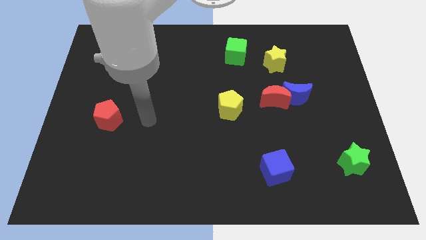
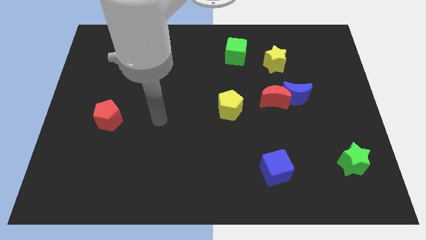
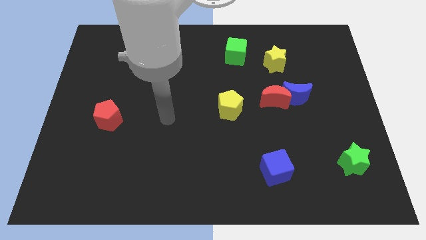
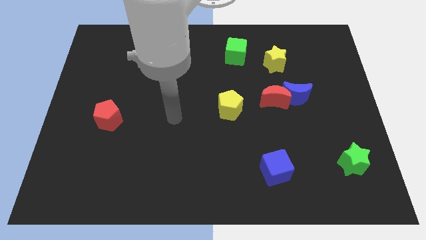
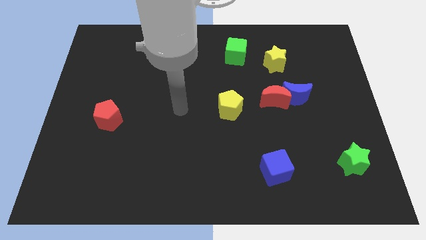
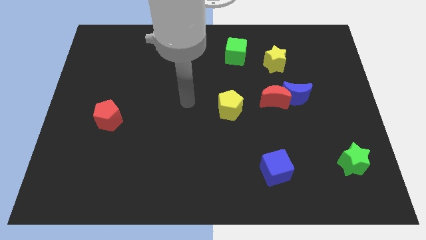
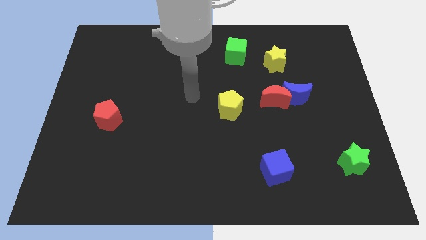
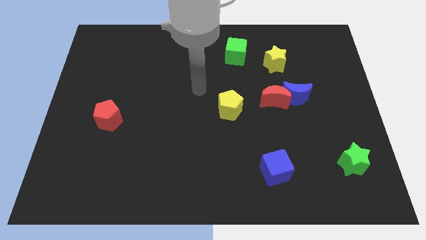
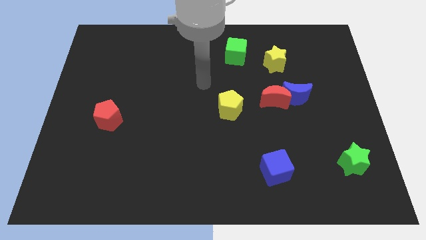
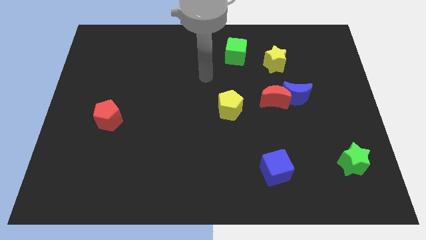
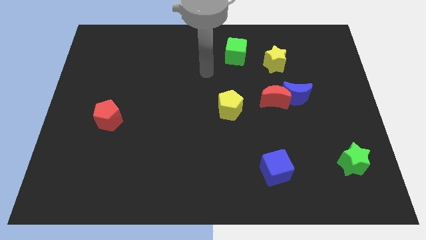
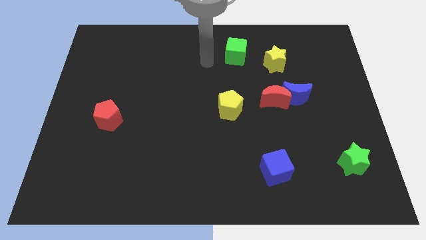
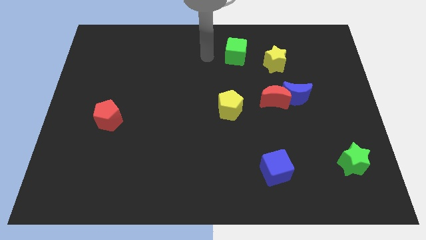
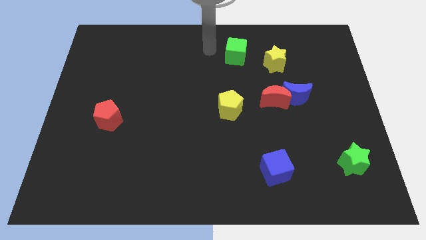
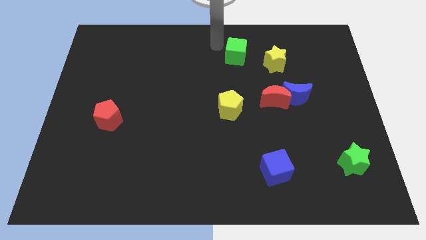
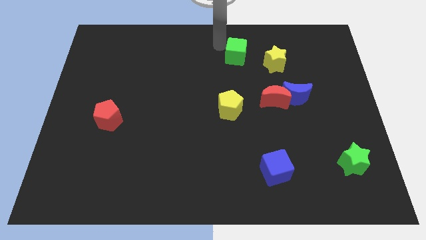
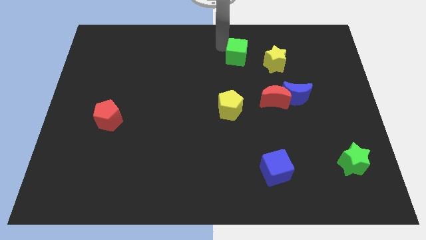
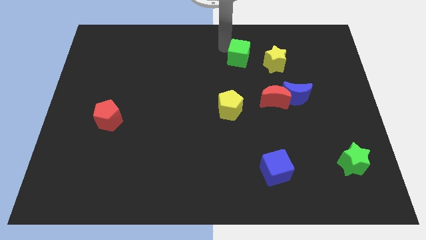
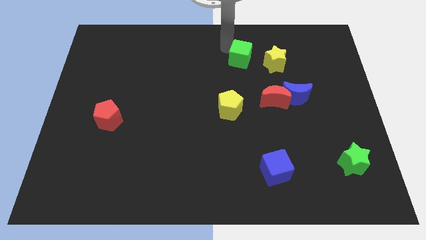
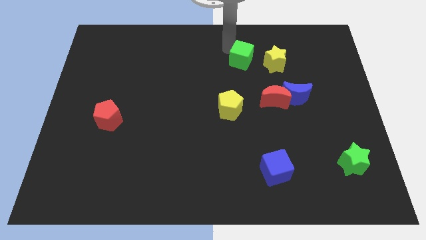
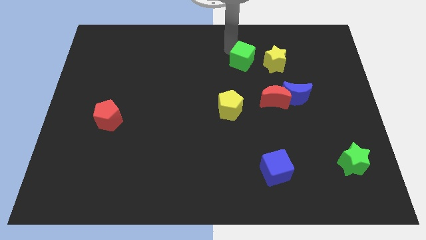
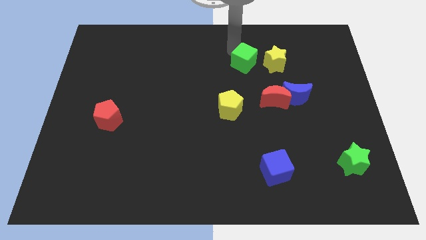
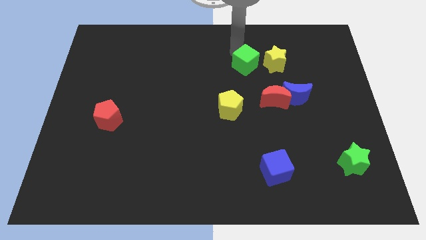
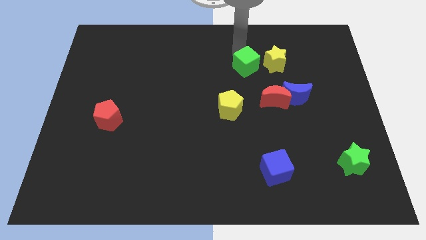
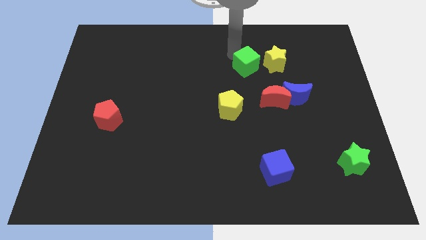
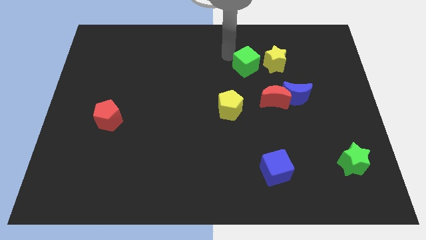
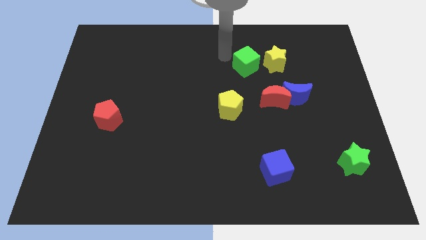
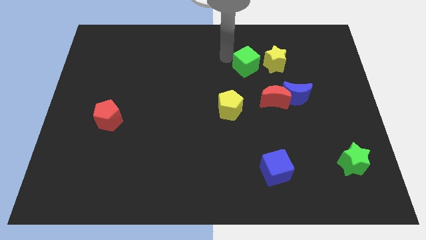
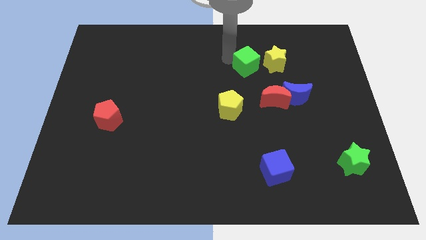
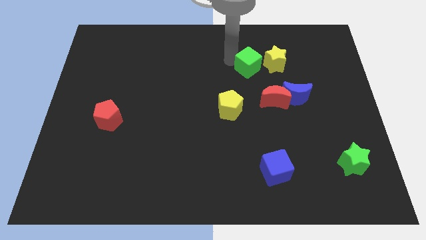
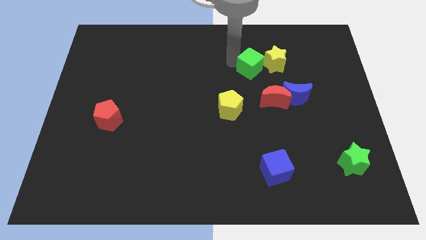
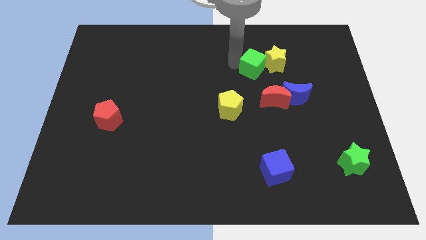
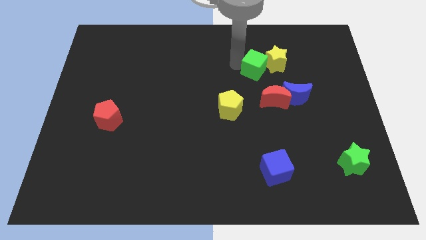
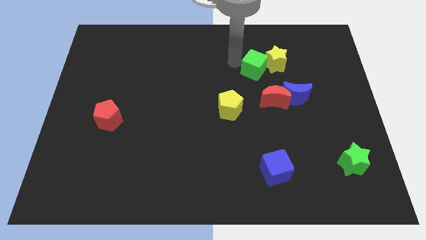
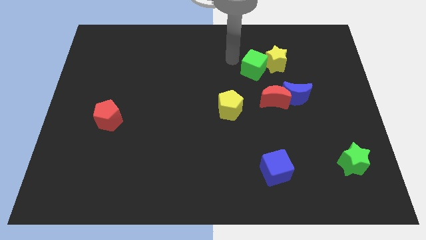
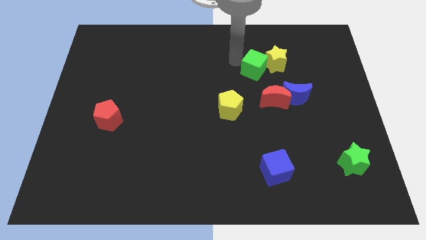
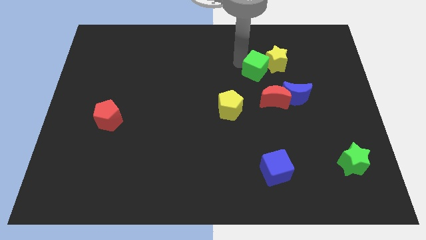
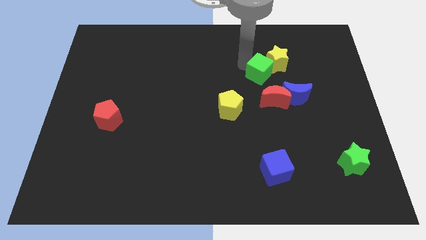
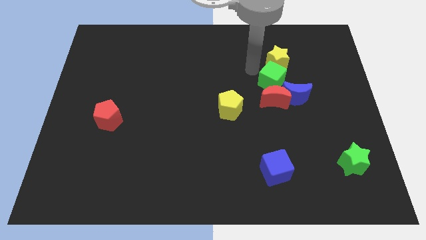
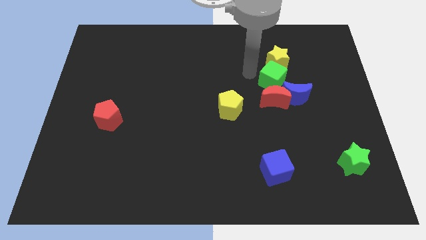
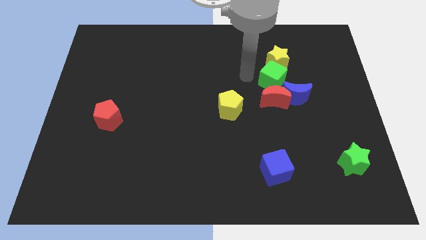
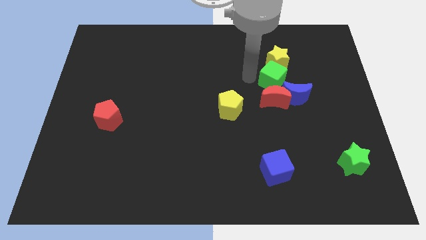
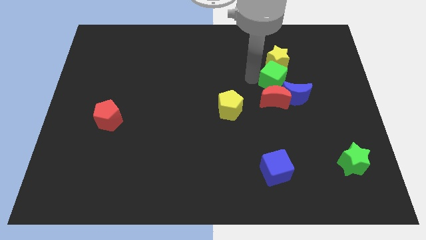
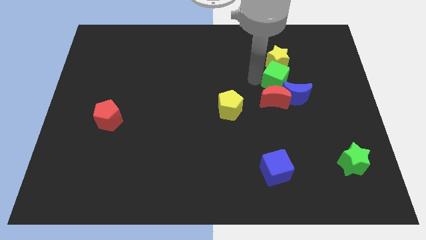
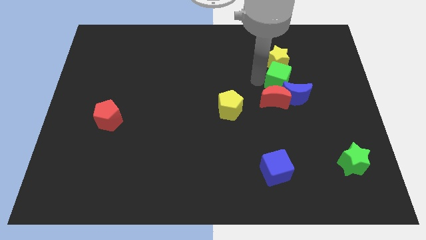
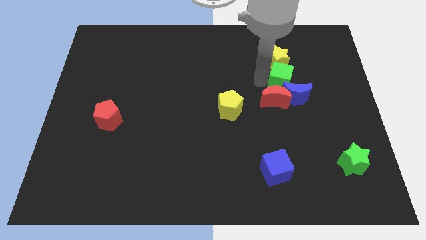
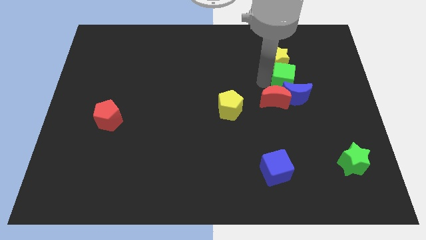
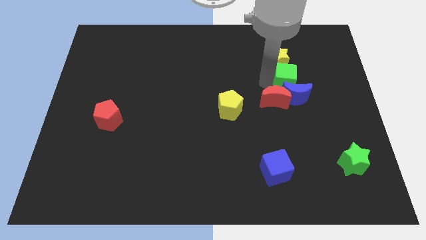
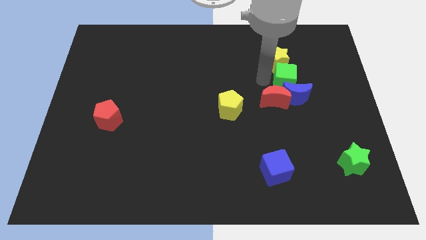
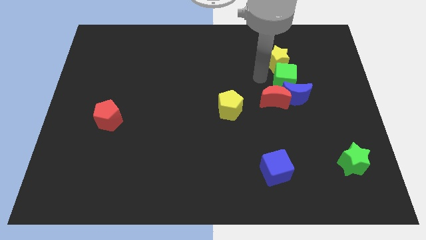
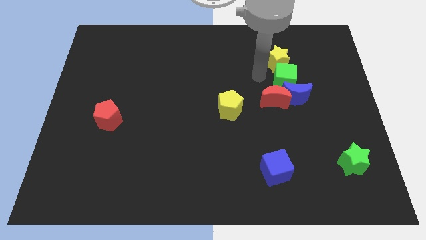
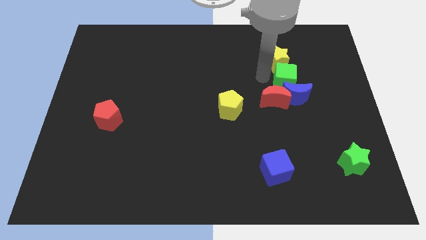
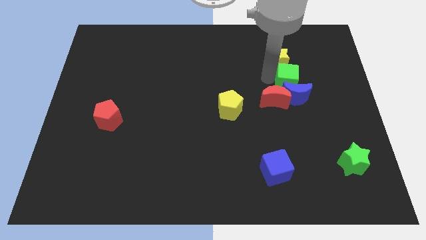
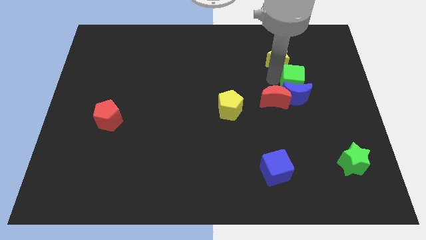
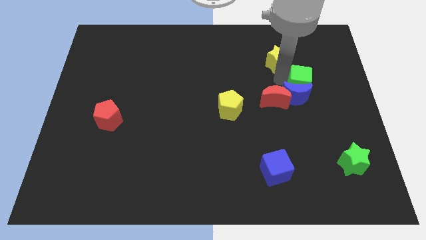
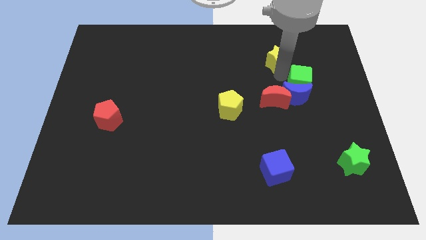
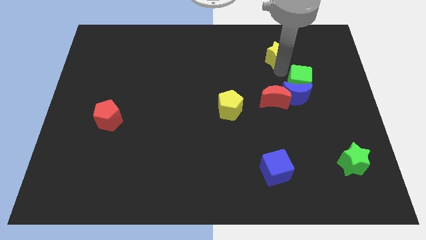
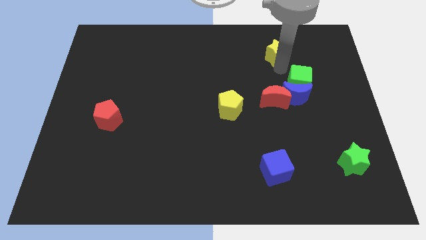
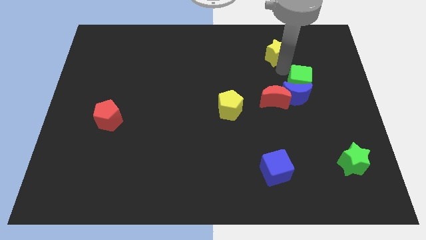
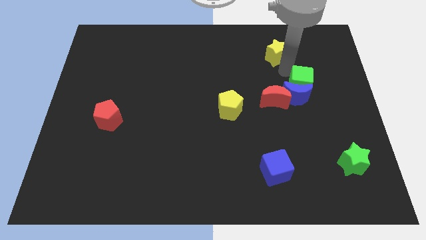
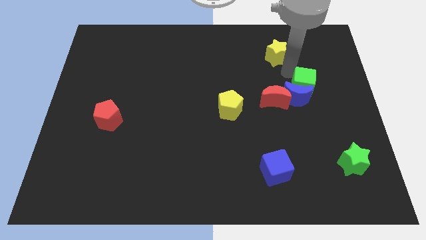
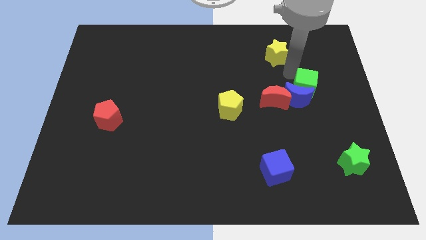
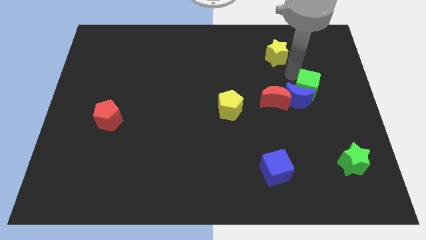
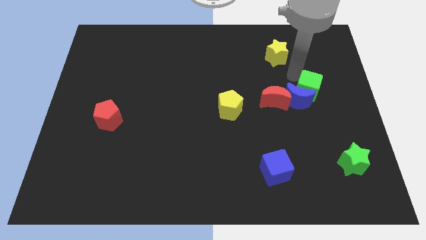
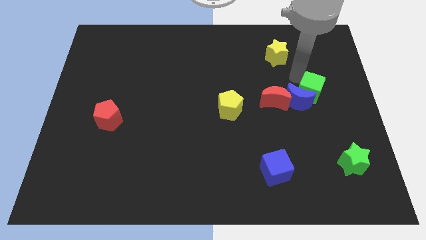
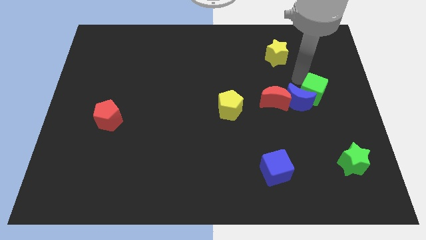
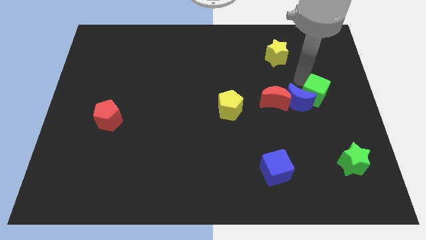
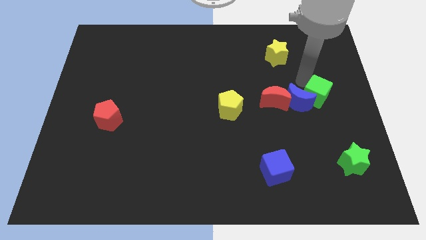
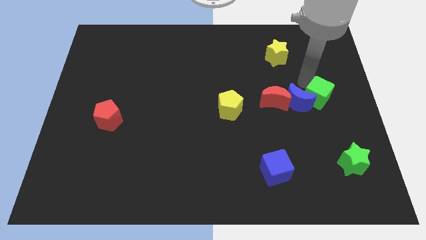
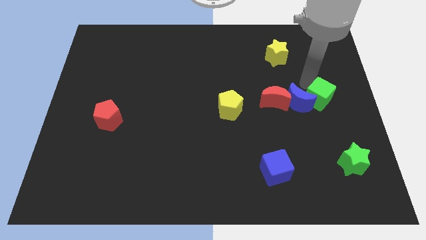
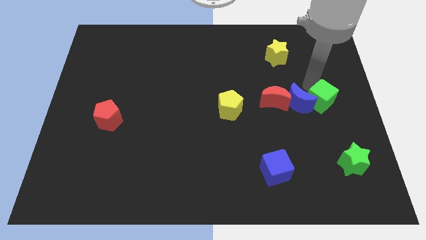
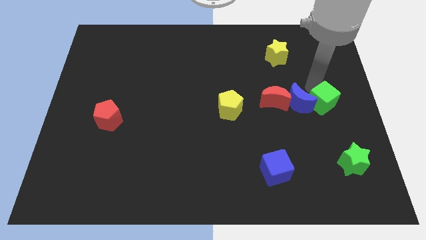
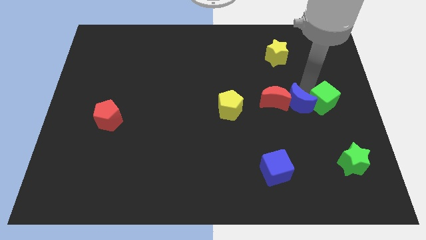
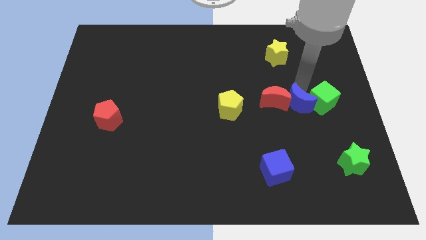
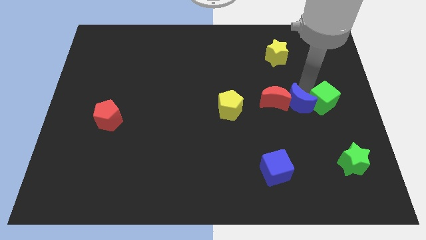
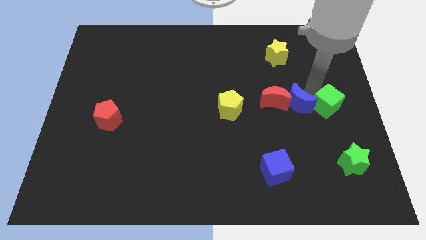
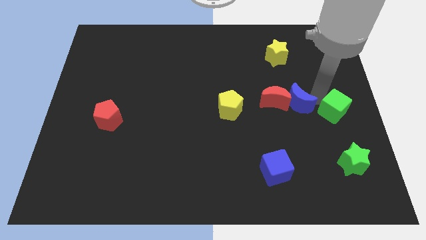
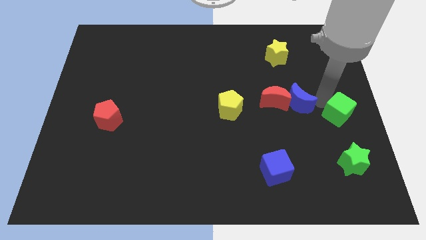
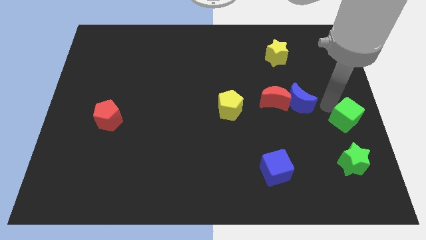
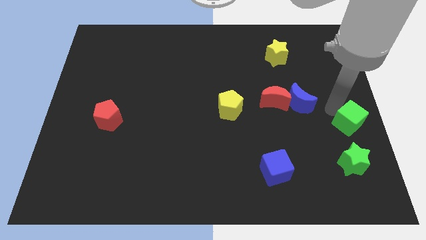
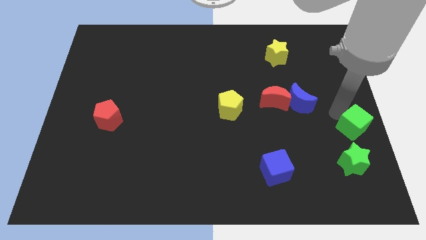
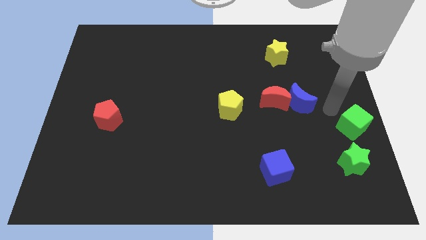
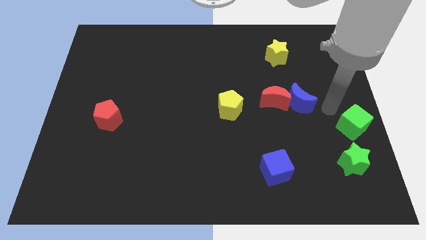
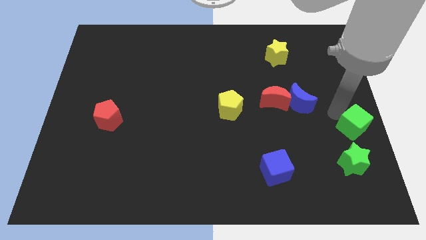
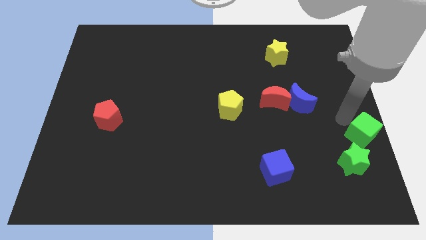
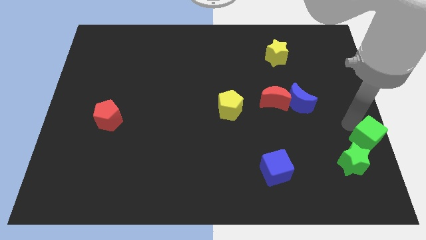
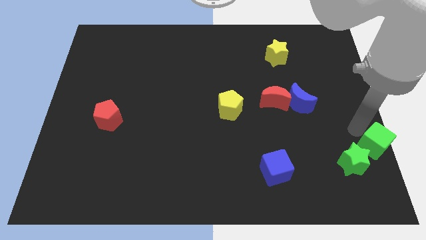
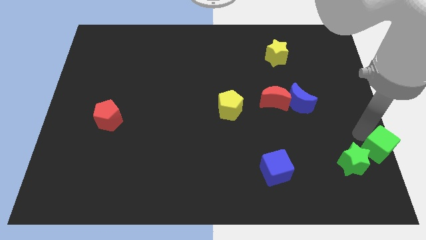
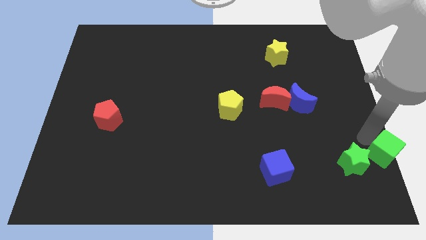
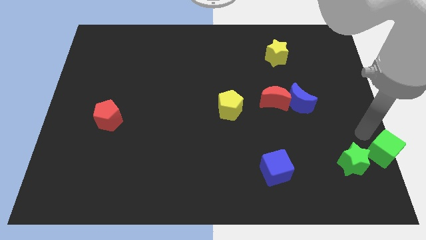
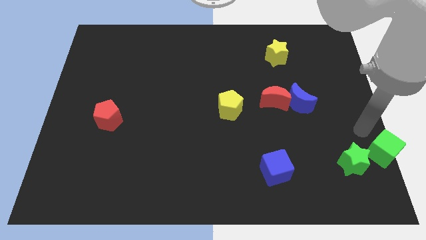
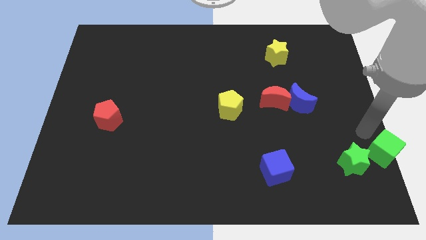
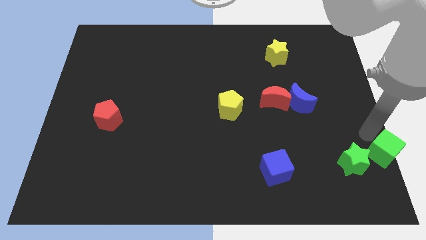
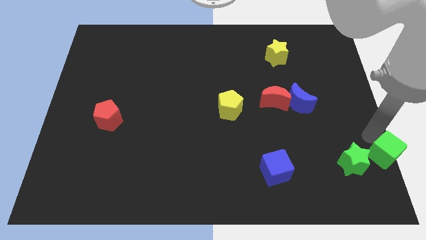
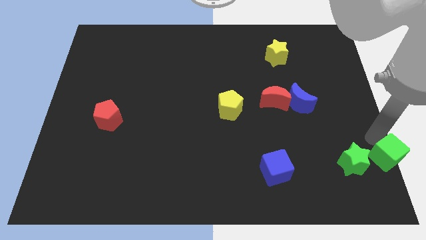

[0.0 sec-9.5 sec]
move the green cube to the bottom right of the board
